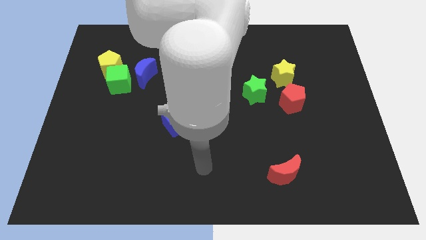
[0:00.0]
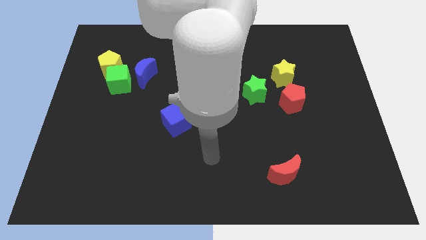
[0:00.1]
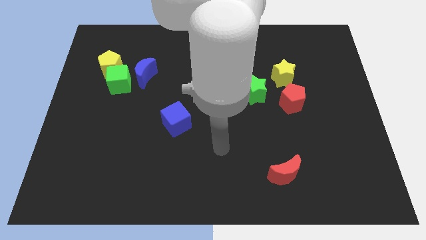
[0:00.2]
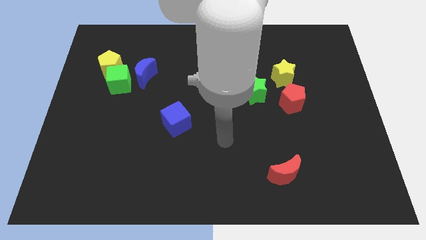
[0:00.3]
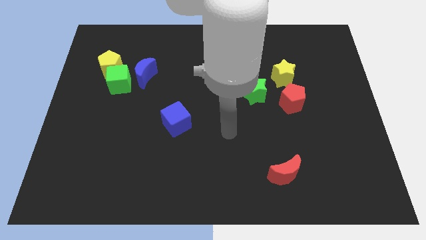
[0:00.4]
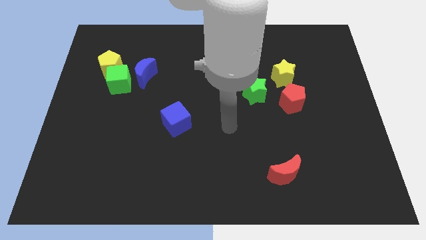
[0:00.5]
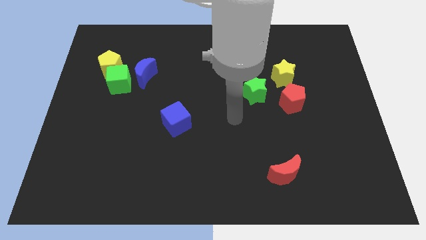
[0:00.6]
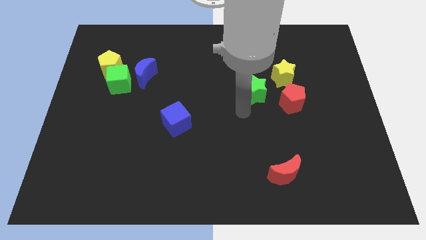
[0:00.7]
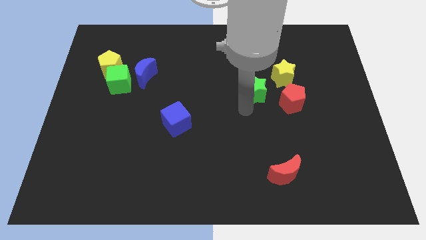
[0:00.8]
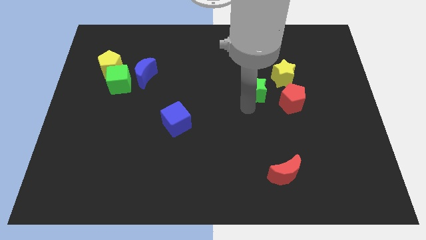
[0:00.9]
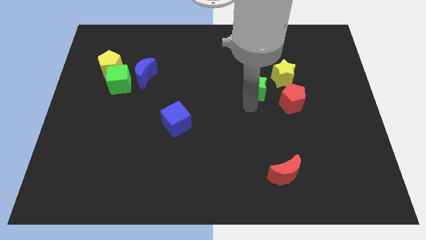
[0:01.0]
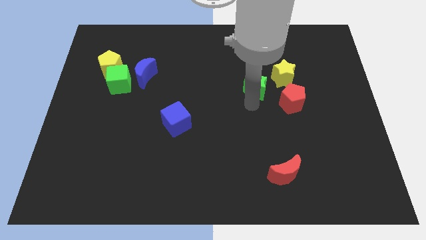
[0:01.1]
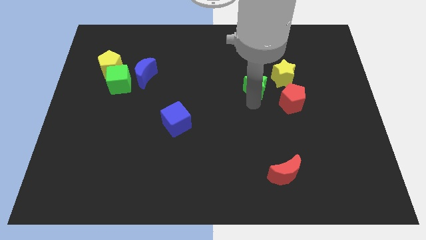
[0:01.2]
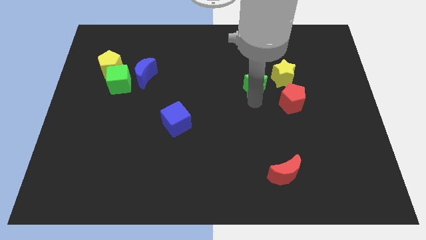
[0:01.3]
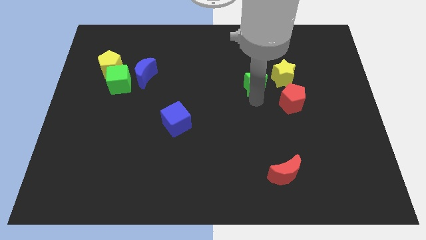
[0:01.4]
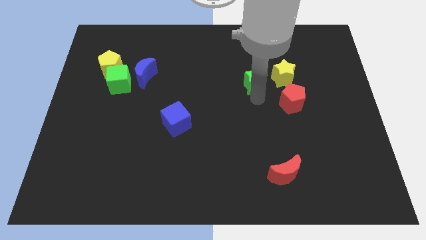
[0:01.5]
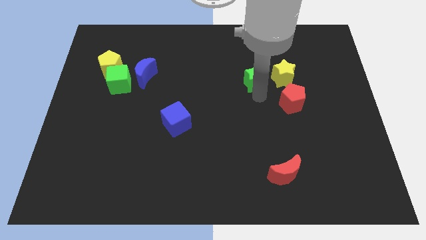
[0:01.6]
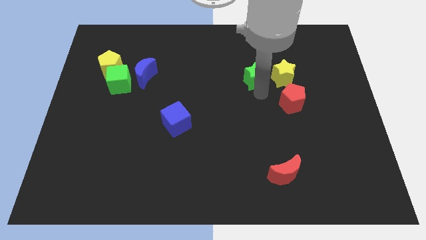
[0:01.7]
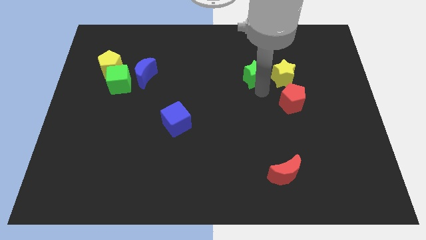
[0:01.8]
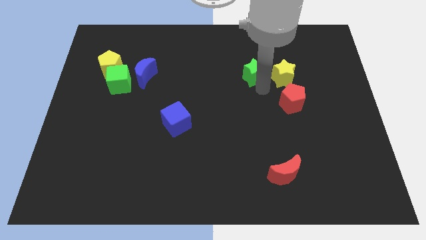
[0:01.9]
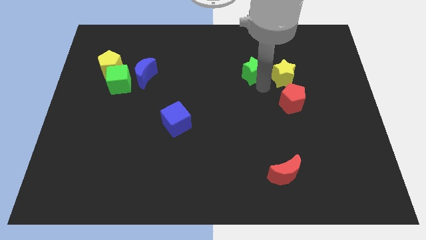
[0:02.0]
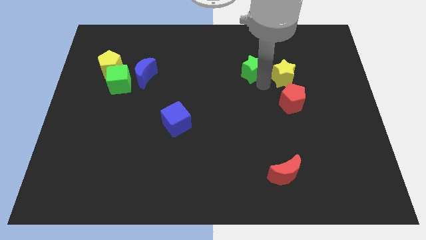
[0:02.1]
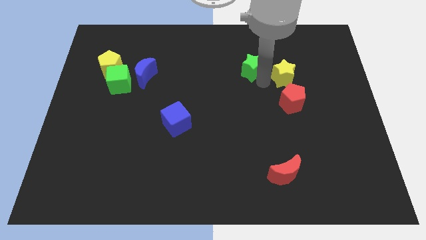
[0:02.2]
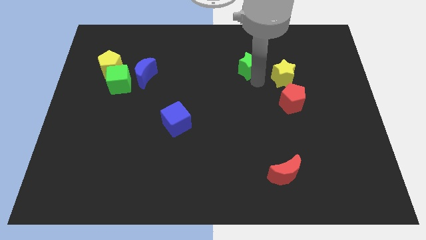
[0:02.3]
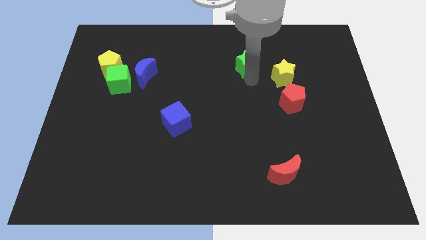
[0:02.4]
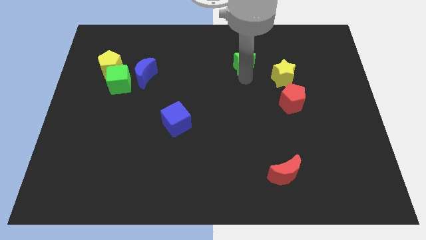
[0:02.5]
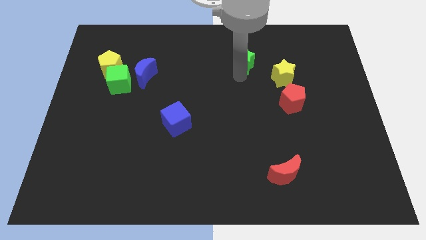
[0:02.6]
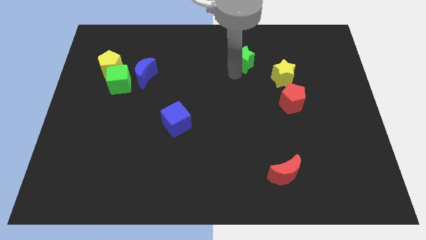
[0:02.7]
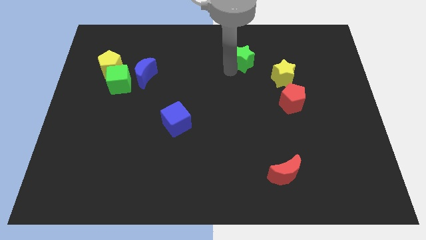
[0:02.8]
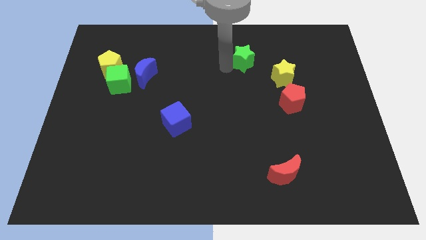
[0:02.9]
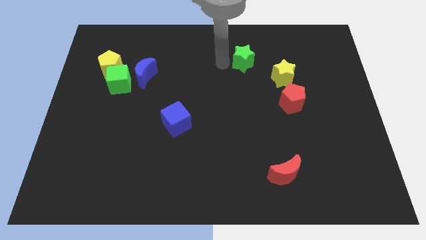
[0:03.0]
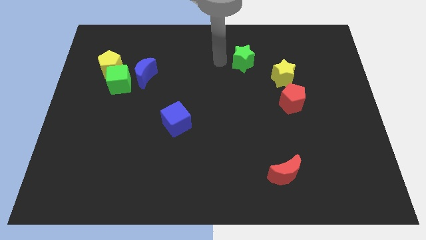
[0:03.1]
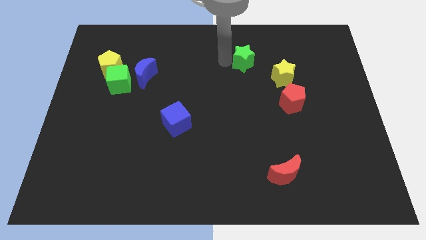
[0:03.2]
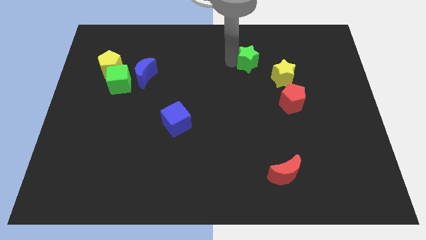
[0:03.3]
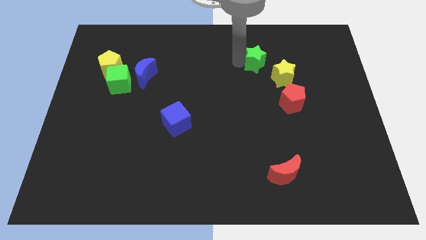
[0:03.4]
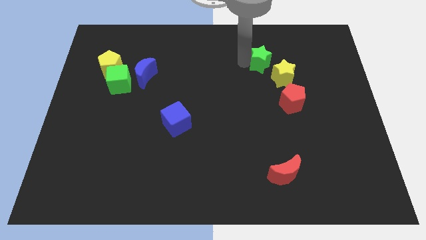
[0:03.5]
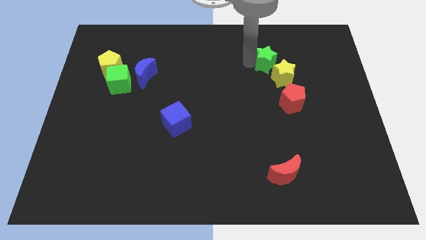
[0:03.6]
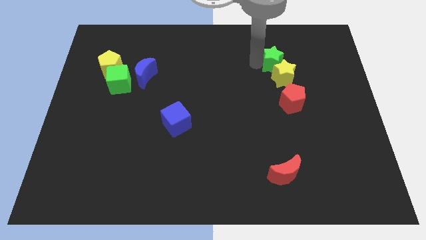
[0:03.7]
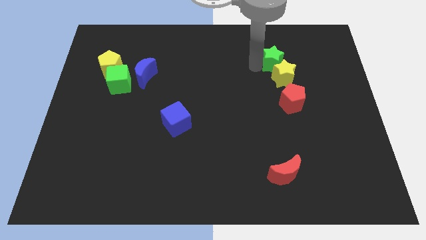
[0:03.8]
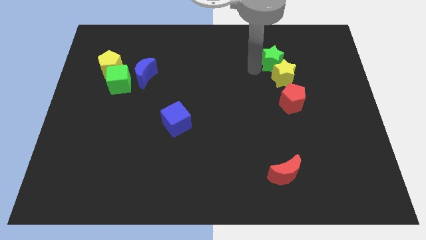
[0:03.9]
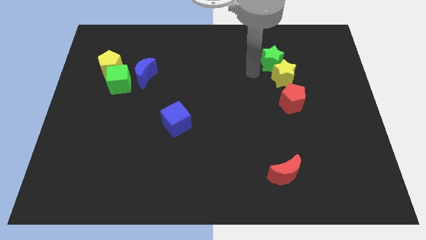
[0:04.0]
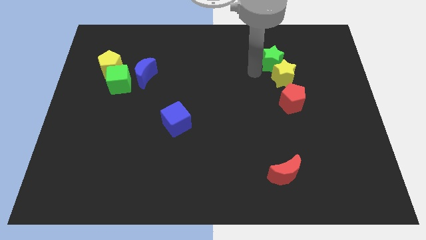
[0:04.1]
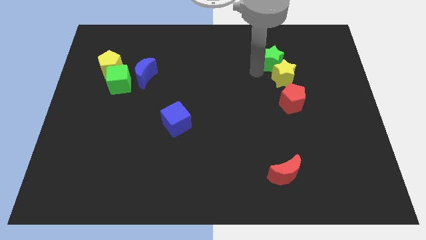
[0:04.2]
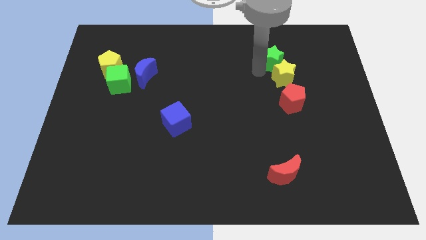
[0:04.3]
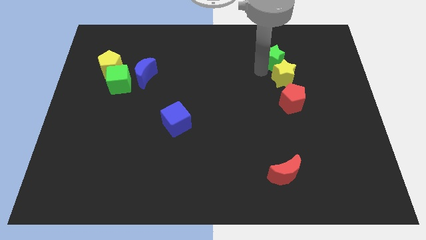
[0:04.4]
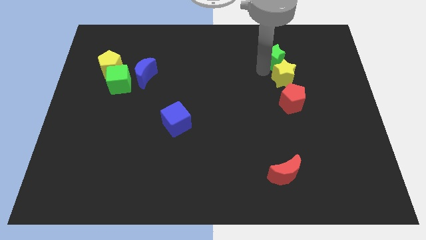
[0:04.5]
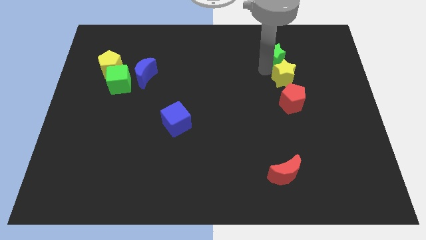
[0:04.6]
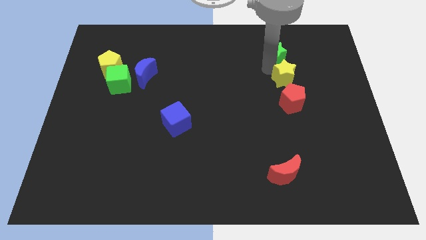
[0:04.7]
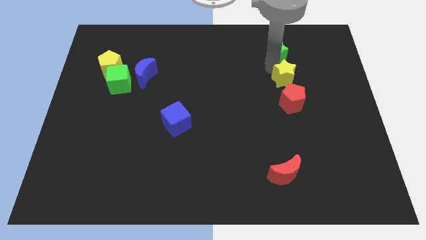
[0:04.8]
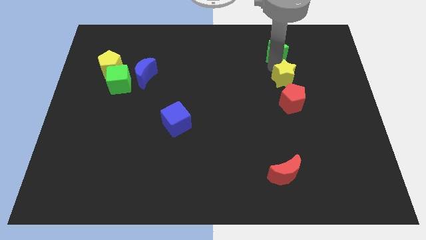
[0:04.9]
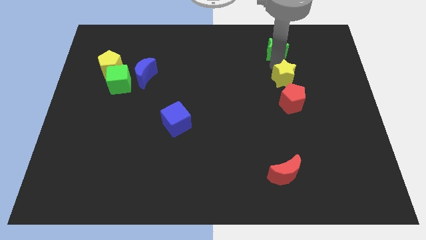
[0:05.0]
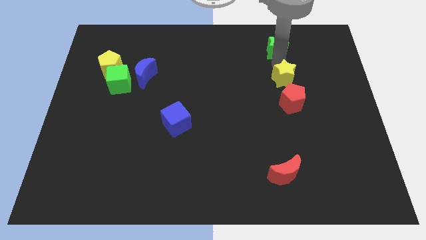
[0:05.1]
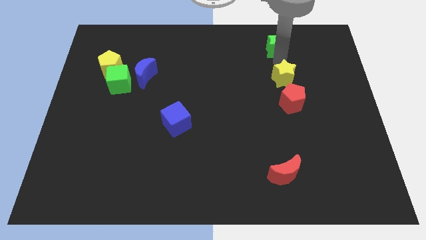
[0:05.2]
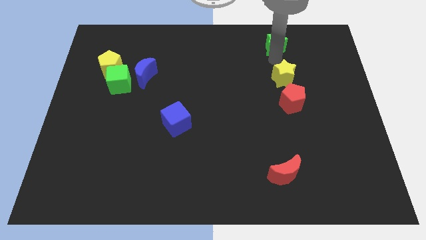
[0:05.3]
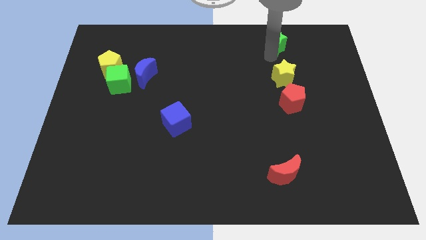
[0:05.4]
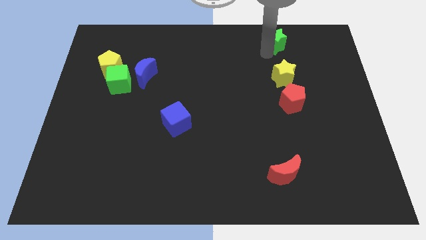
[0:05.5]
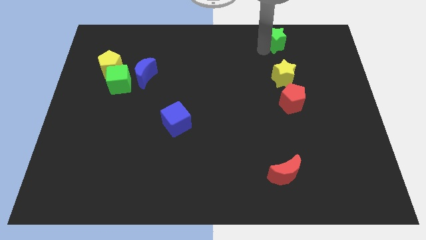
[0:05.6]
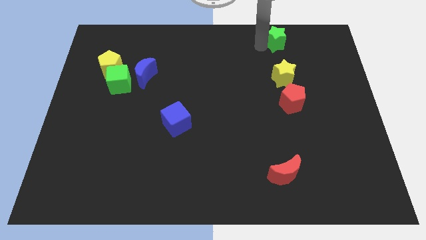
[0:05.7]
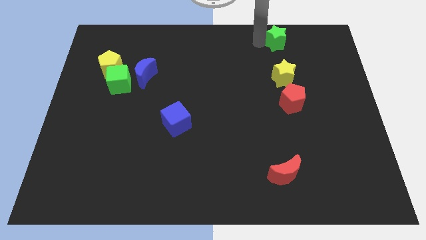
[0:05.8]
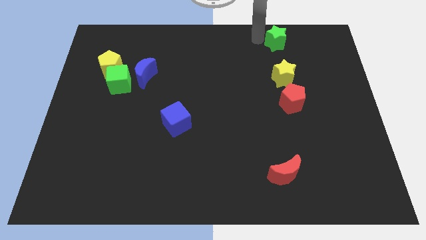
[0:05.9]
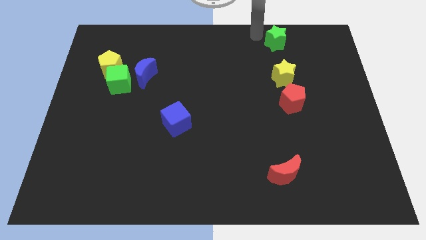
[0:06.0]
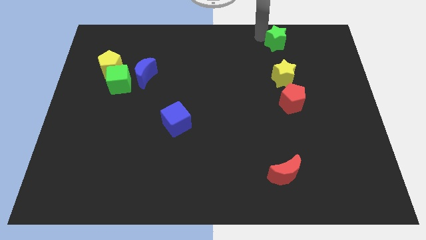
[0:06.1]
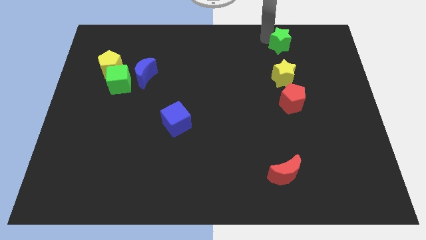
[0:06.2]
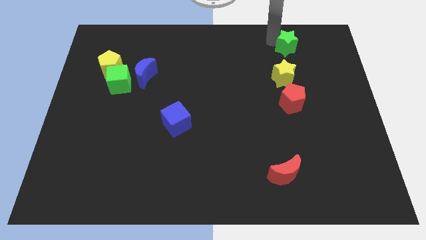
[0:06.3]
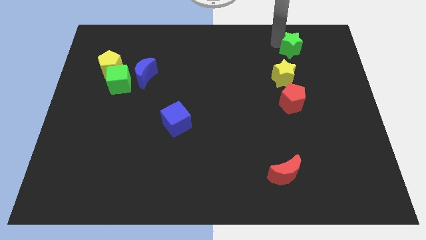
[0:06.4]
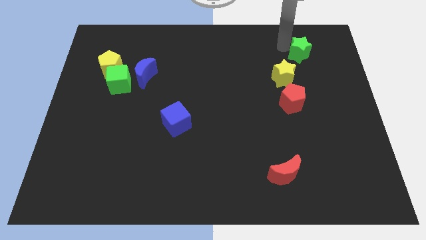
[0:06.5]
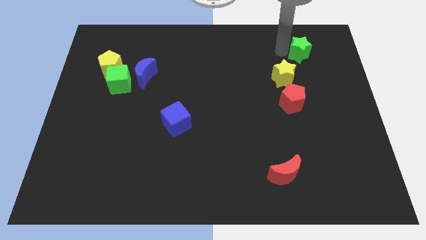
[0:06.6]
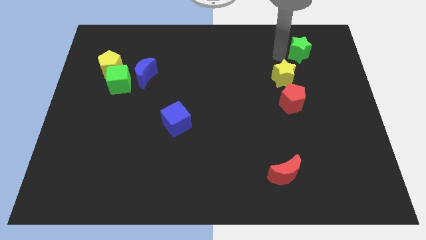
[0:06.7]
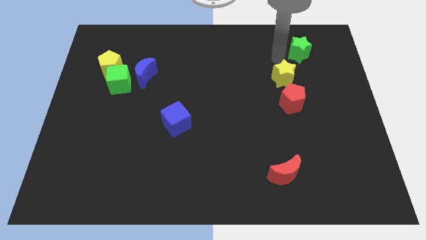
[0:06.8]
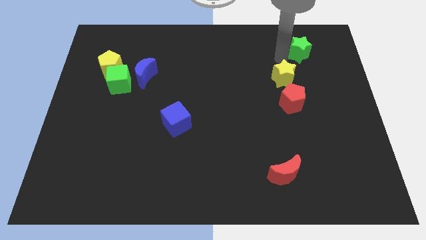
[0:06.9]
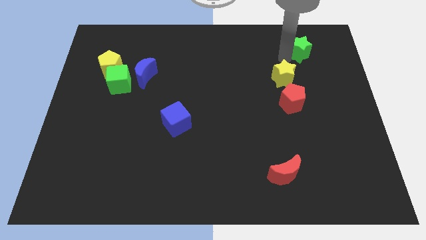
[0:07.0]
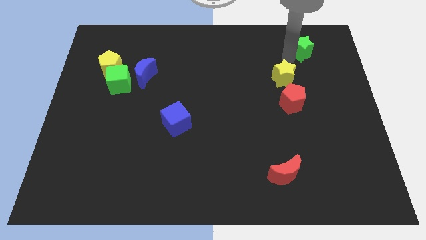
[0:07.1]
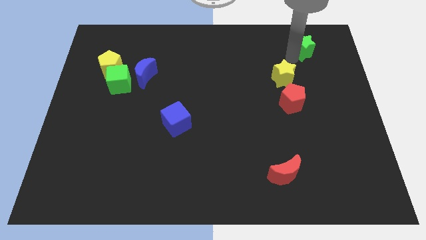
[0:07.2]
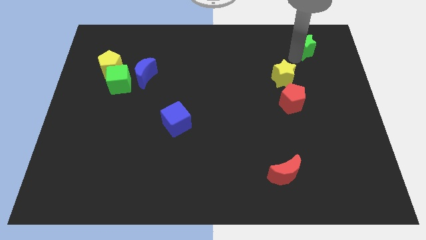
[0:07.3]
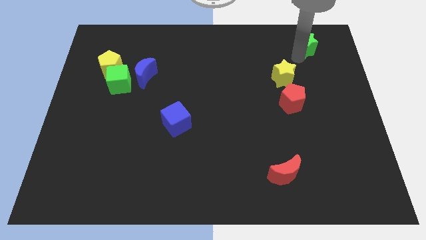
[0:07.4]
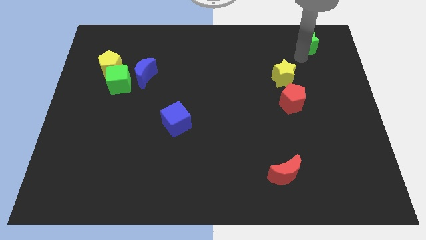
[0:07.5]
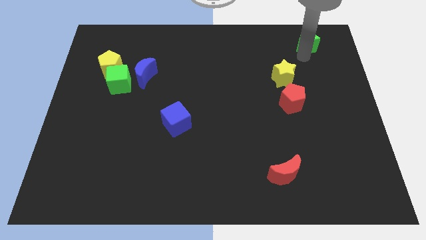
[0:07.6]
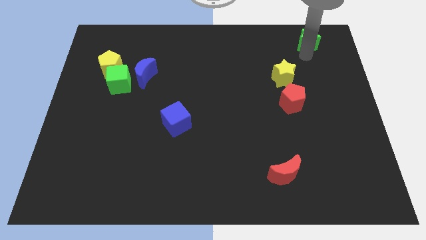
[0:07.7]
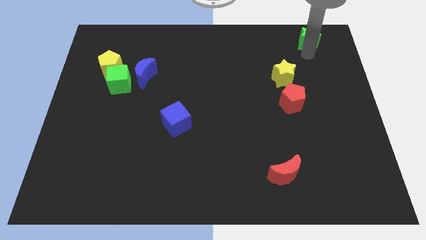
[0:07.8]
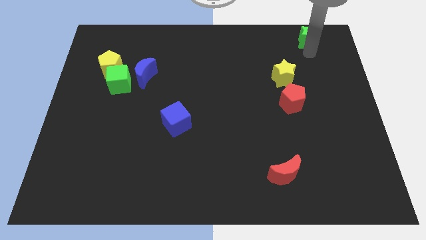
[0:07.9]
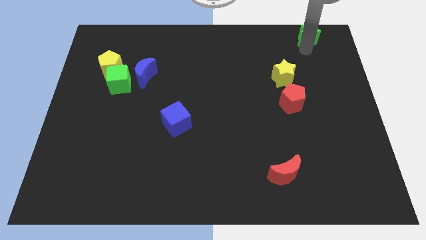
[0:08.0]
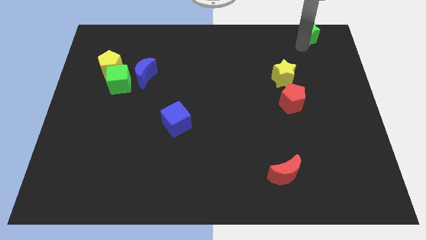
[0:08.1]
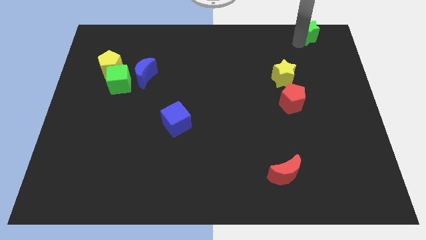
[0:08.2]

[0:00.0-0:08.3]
slide the green star to the upper right corner
